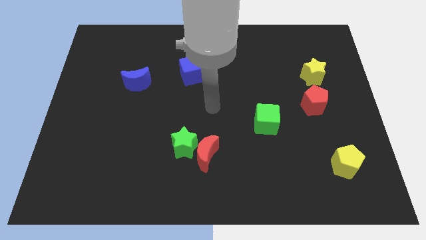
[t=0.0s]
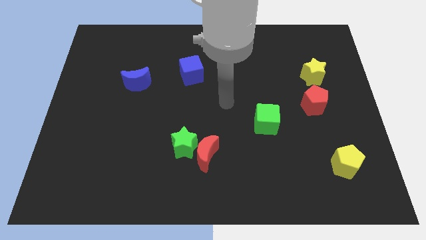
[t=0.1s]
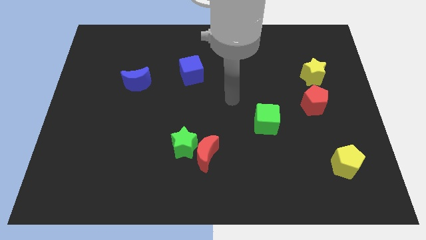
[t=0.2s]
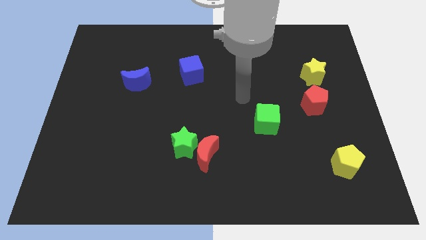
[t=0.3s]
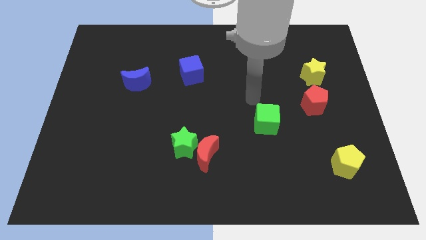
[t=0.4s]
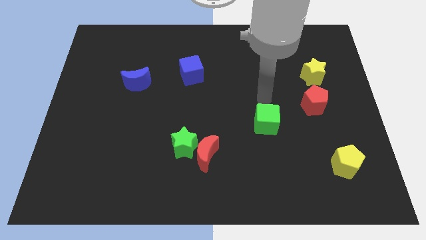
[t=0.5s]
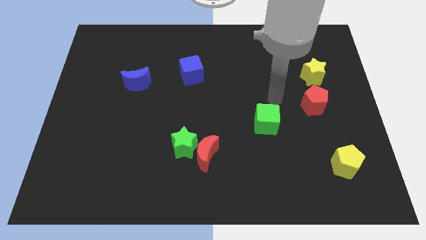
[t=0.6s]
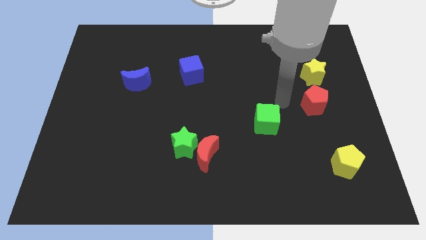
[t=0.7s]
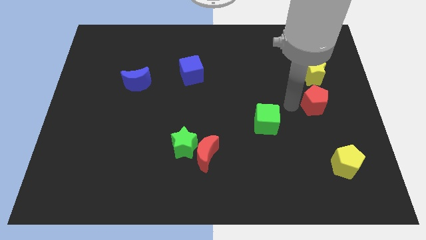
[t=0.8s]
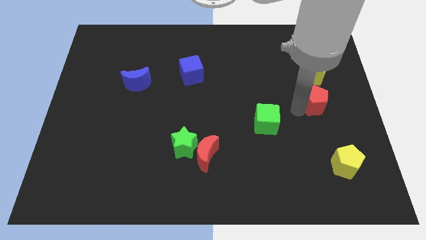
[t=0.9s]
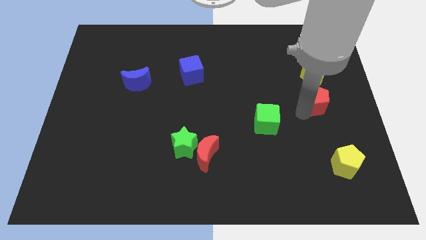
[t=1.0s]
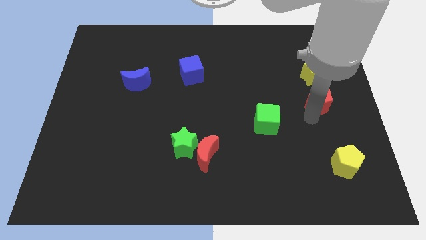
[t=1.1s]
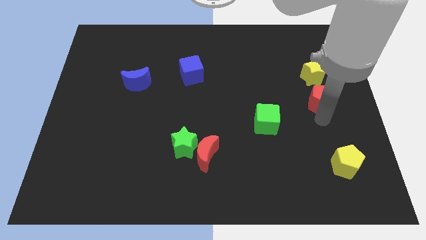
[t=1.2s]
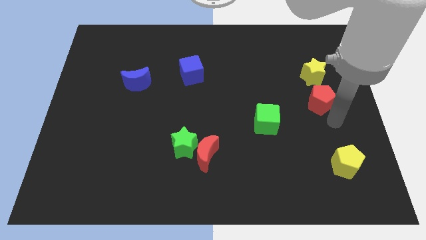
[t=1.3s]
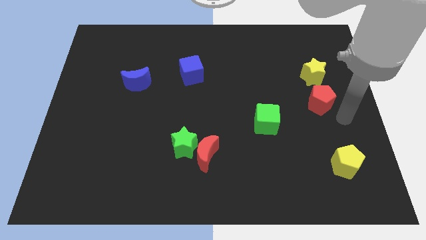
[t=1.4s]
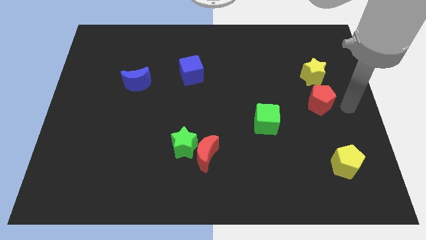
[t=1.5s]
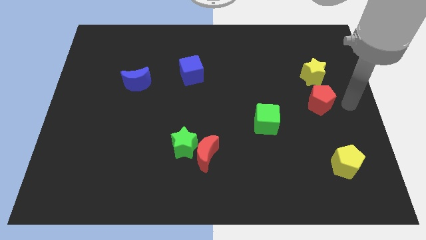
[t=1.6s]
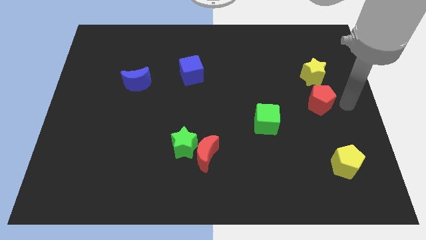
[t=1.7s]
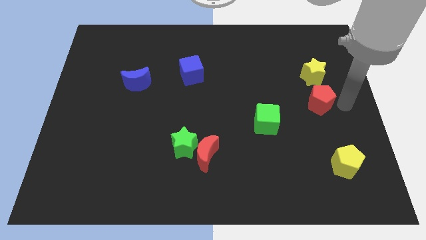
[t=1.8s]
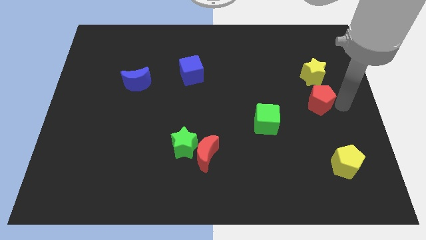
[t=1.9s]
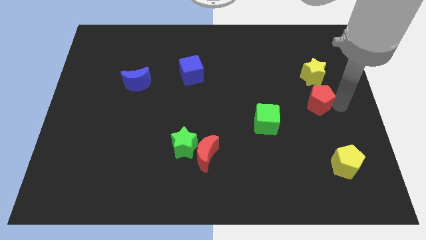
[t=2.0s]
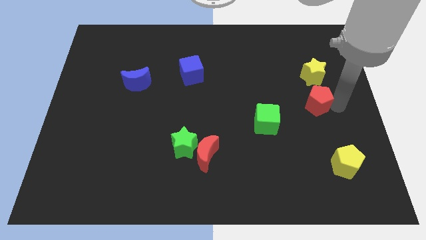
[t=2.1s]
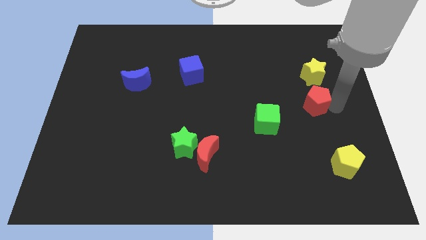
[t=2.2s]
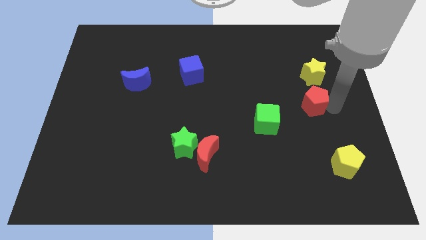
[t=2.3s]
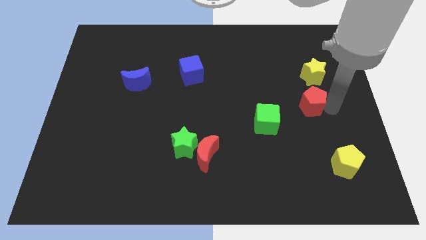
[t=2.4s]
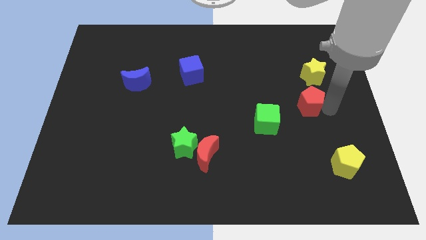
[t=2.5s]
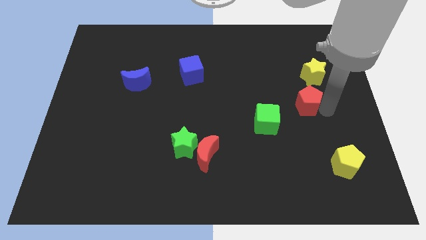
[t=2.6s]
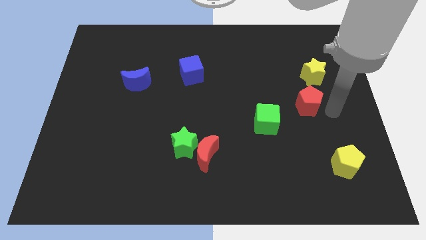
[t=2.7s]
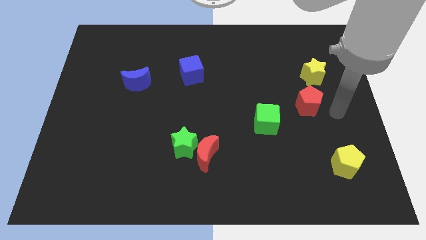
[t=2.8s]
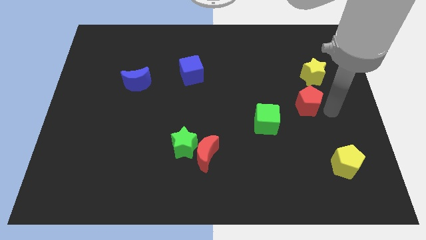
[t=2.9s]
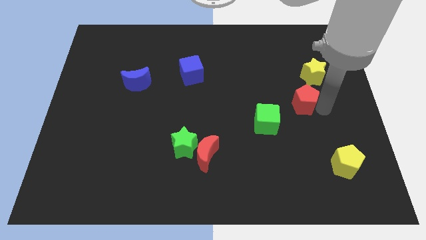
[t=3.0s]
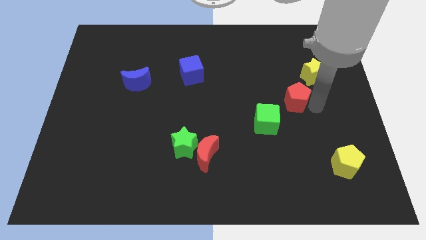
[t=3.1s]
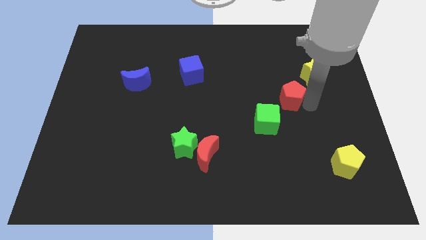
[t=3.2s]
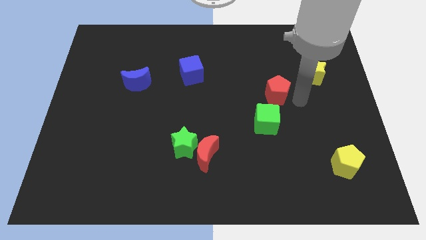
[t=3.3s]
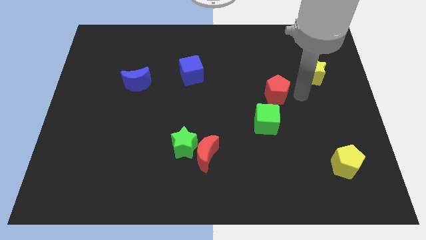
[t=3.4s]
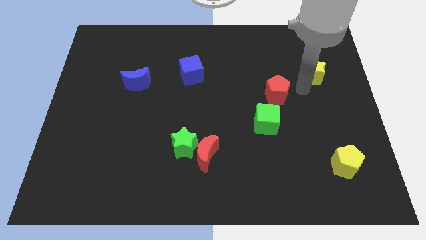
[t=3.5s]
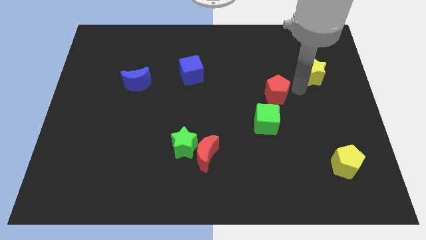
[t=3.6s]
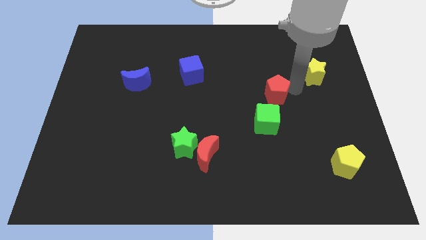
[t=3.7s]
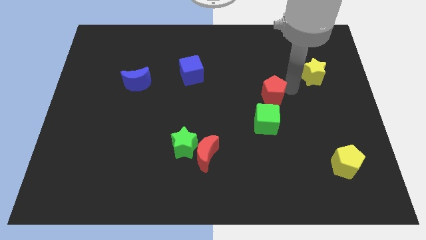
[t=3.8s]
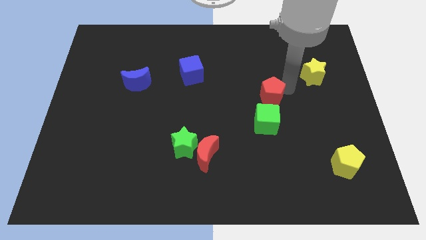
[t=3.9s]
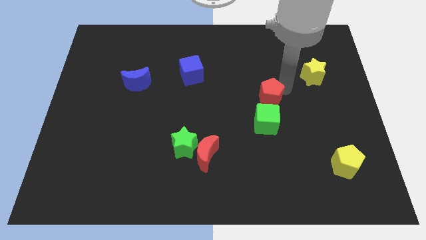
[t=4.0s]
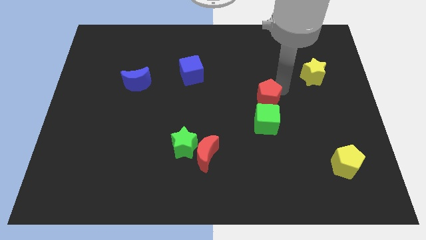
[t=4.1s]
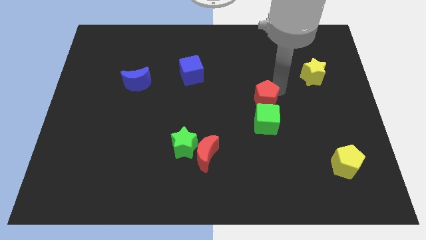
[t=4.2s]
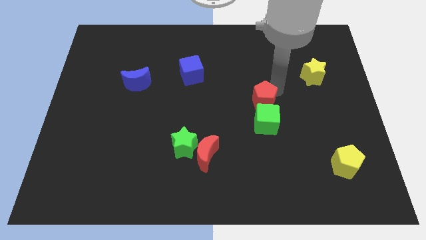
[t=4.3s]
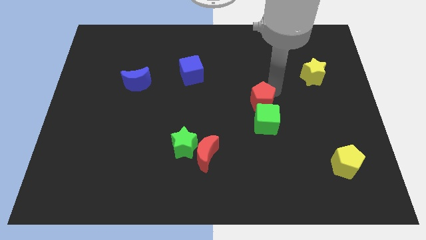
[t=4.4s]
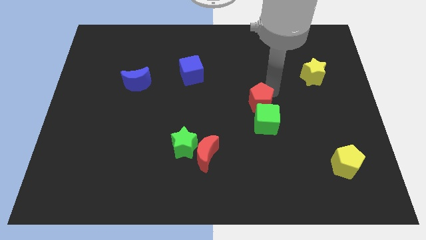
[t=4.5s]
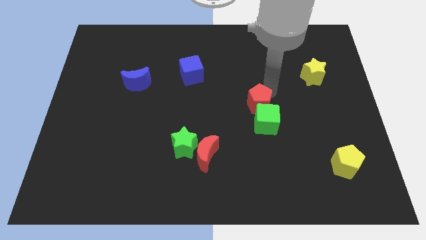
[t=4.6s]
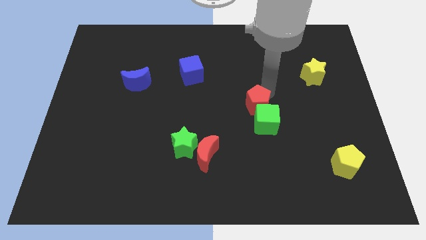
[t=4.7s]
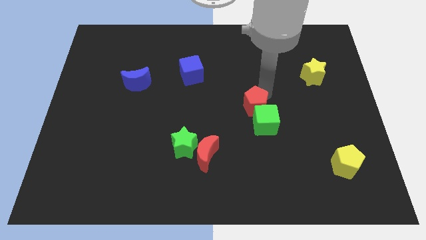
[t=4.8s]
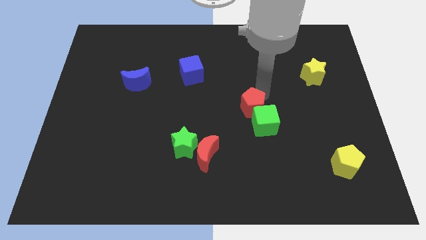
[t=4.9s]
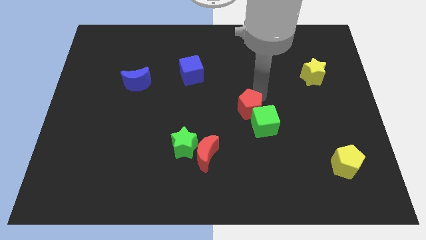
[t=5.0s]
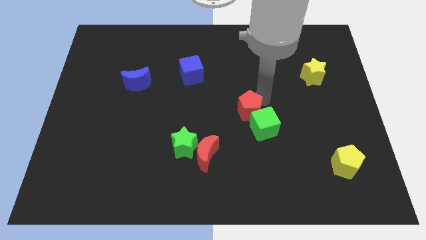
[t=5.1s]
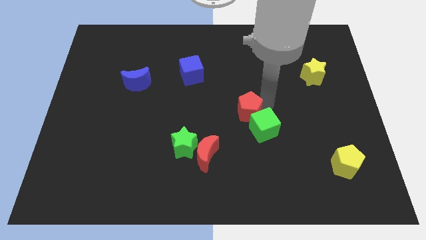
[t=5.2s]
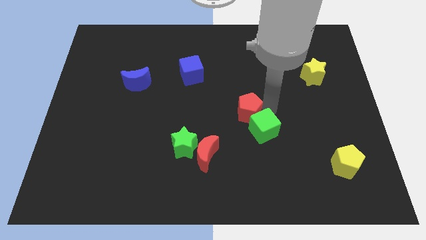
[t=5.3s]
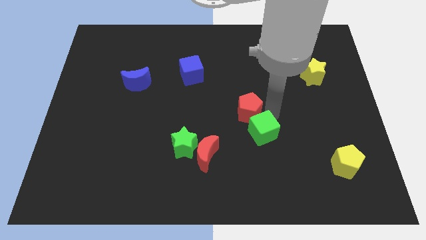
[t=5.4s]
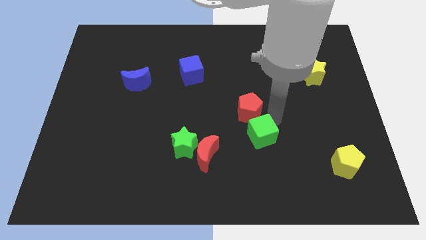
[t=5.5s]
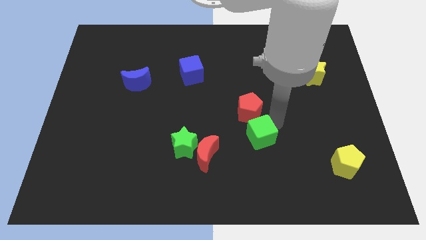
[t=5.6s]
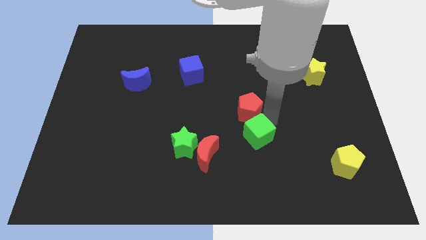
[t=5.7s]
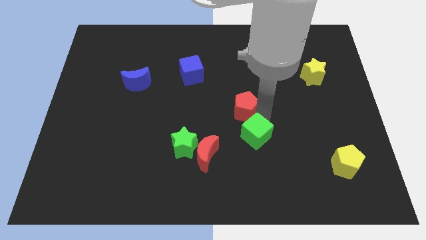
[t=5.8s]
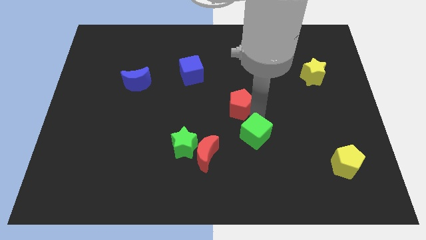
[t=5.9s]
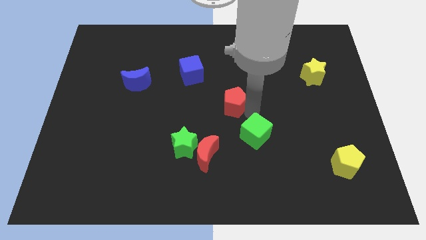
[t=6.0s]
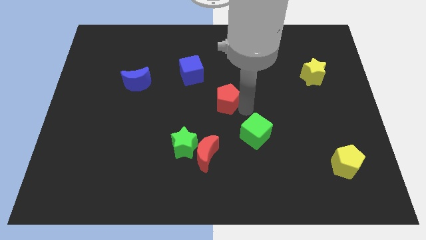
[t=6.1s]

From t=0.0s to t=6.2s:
push the red pentagon to the left

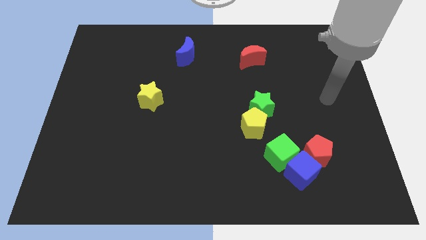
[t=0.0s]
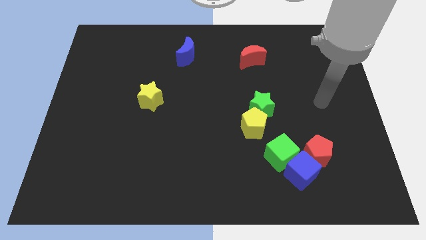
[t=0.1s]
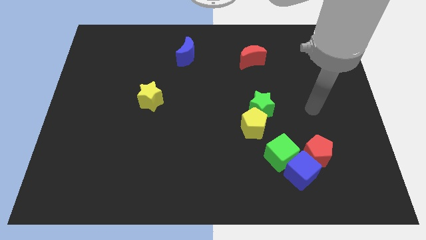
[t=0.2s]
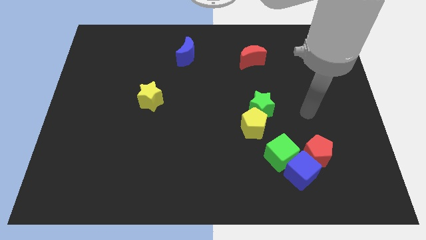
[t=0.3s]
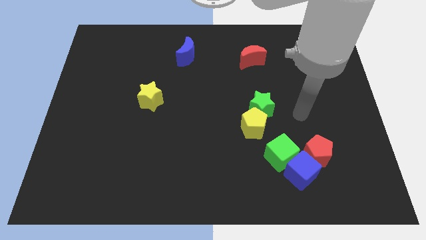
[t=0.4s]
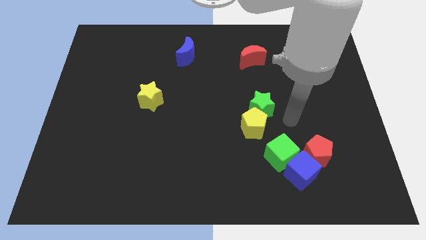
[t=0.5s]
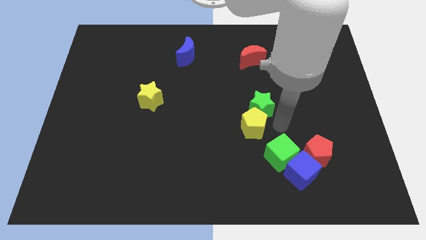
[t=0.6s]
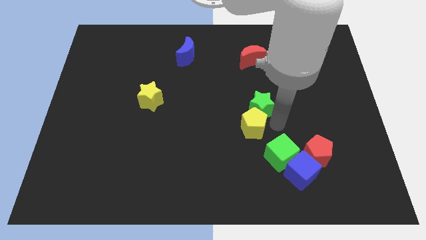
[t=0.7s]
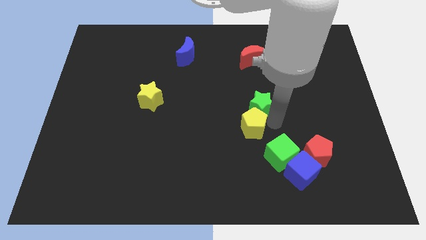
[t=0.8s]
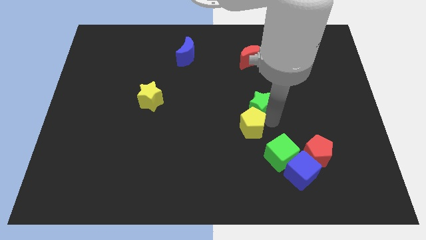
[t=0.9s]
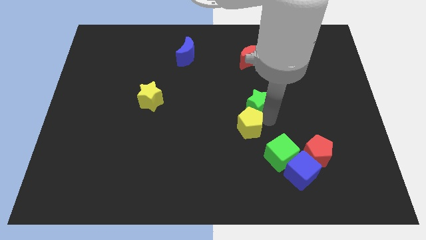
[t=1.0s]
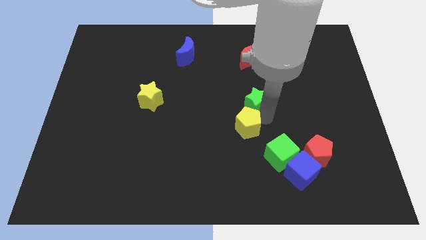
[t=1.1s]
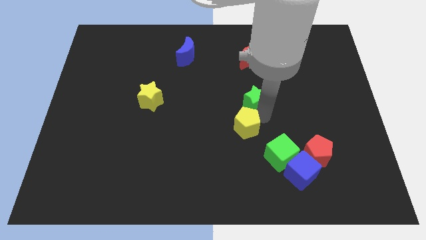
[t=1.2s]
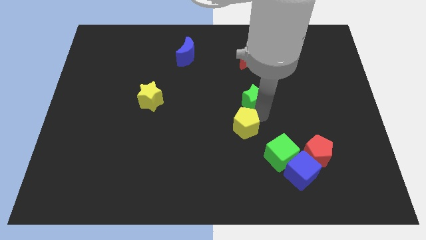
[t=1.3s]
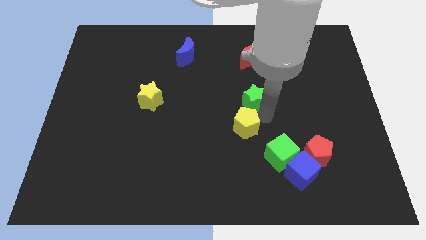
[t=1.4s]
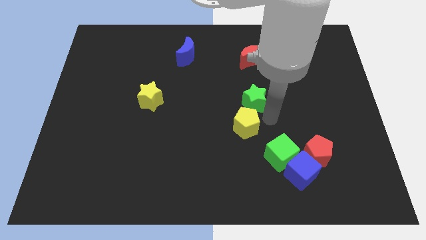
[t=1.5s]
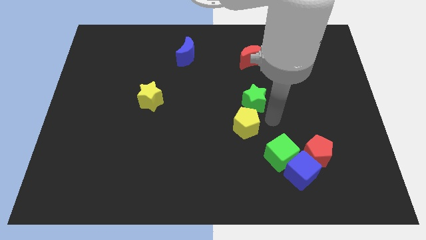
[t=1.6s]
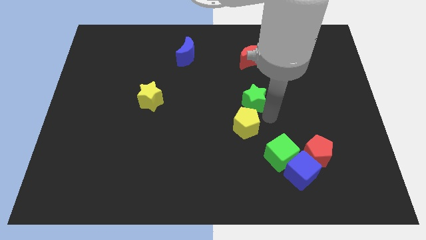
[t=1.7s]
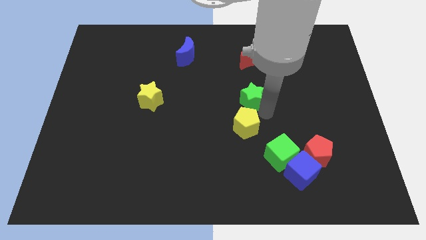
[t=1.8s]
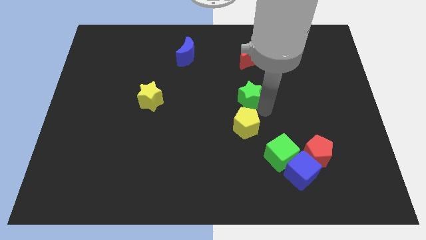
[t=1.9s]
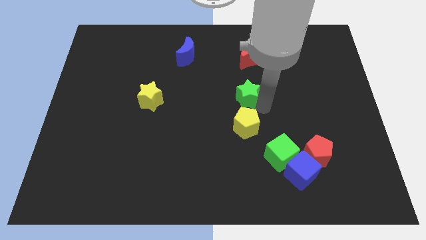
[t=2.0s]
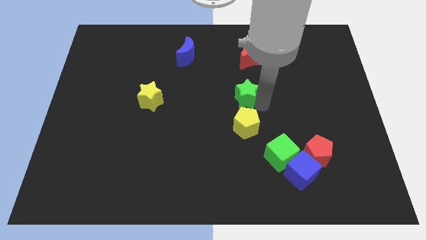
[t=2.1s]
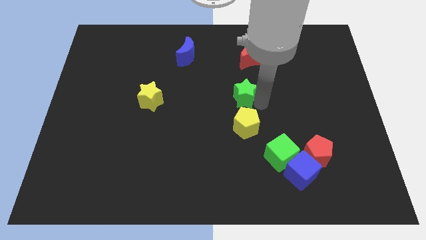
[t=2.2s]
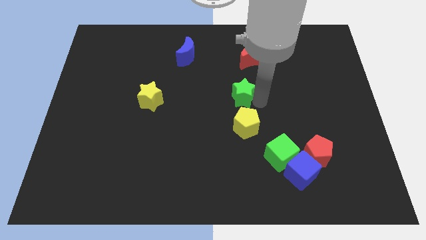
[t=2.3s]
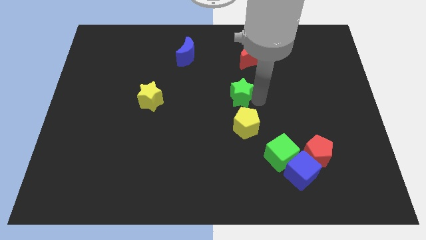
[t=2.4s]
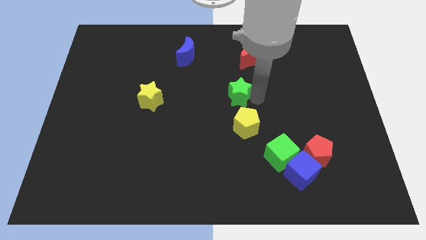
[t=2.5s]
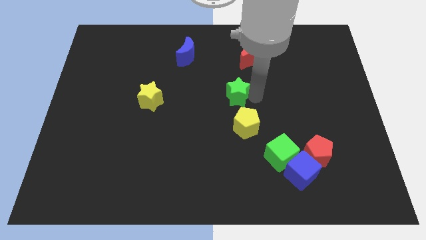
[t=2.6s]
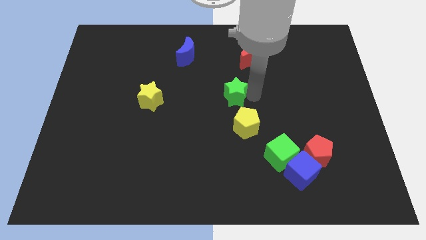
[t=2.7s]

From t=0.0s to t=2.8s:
move the green star up and left slightly
